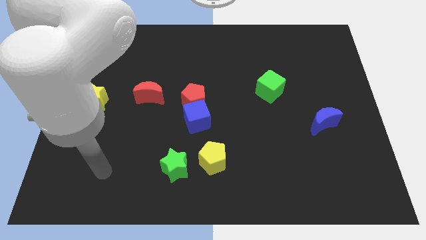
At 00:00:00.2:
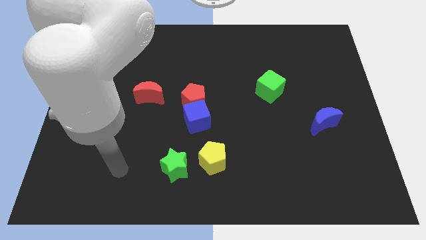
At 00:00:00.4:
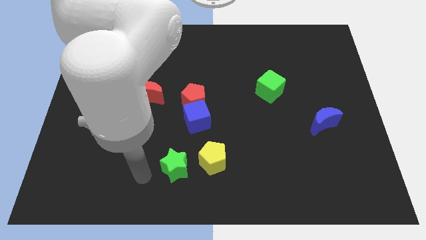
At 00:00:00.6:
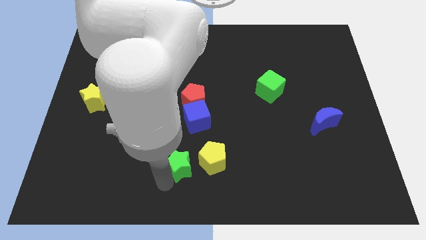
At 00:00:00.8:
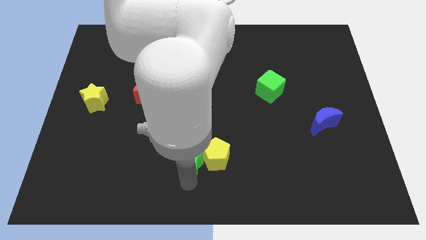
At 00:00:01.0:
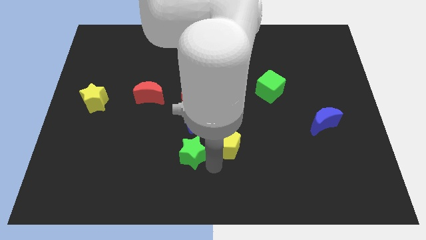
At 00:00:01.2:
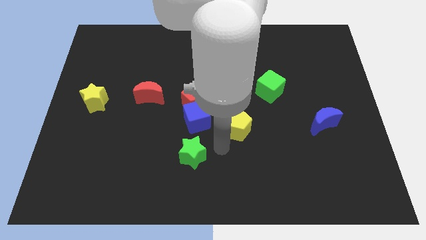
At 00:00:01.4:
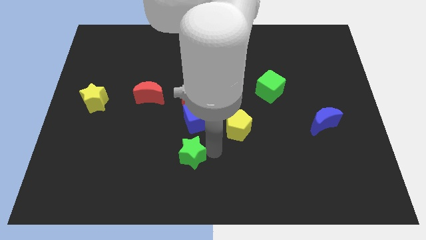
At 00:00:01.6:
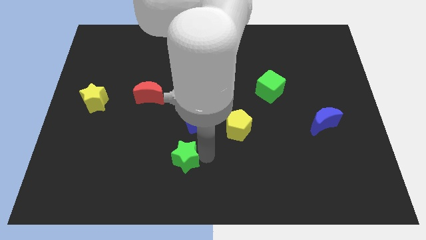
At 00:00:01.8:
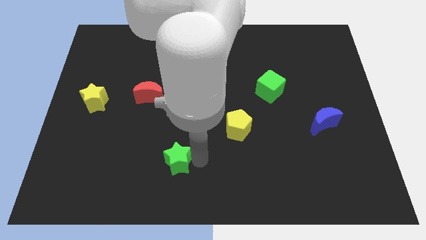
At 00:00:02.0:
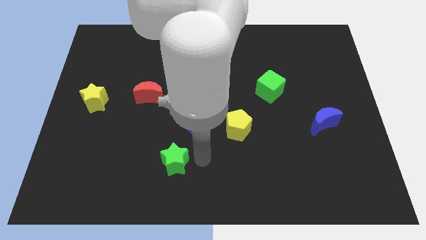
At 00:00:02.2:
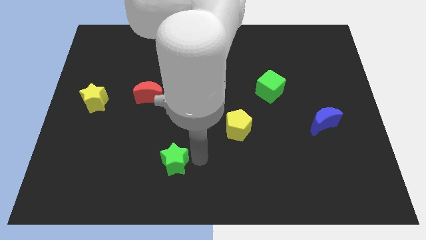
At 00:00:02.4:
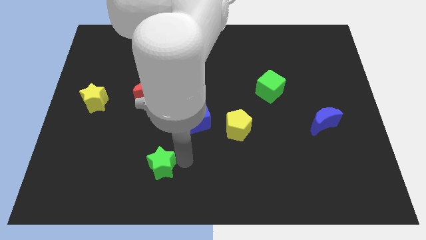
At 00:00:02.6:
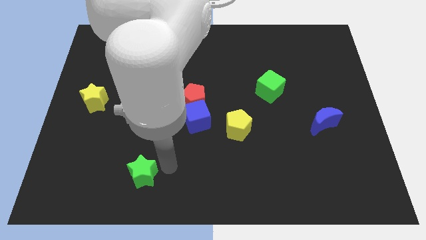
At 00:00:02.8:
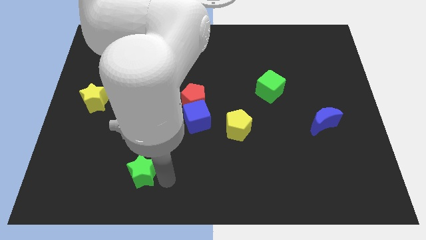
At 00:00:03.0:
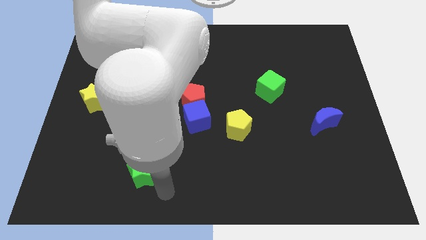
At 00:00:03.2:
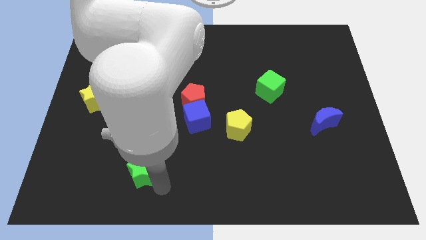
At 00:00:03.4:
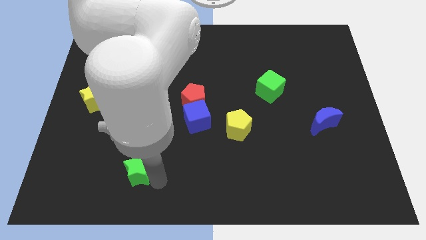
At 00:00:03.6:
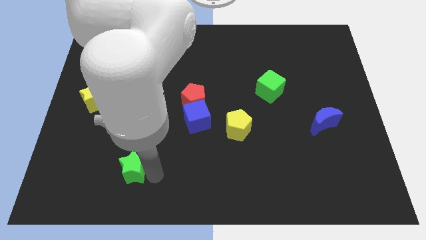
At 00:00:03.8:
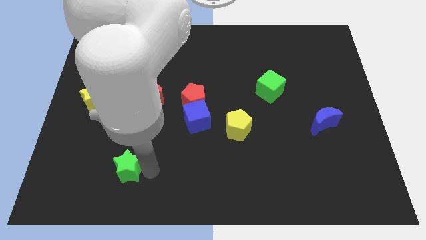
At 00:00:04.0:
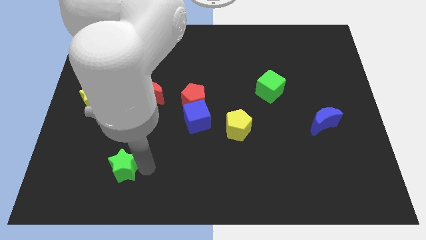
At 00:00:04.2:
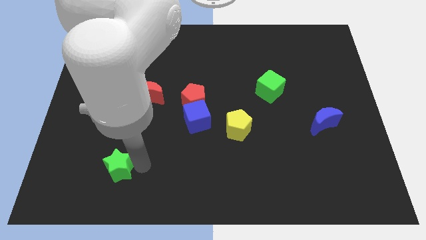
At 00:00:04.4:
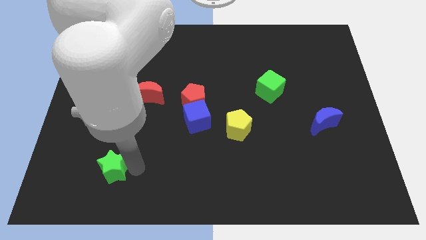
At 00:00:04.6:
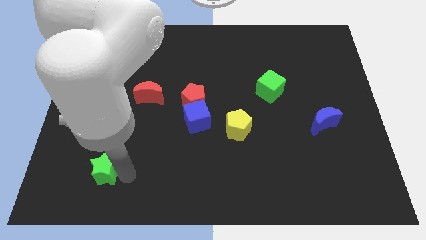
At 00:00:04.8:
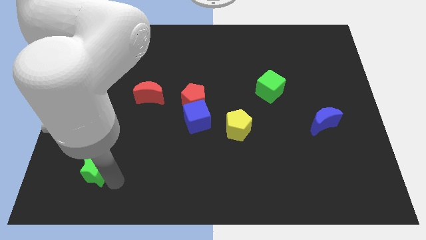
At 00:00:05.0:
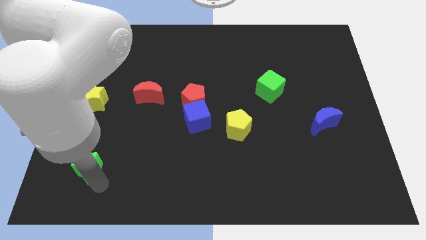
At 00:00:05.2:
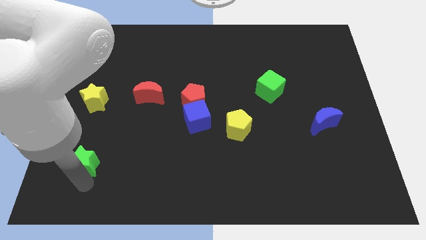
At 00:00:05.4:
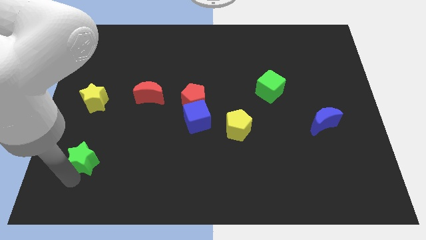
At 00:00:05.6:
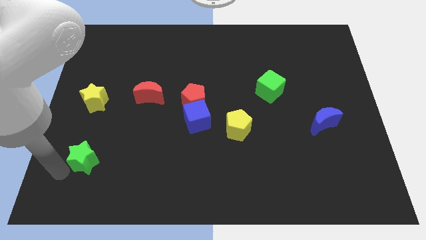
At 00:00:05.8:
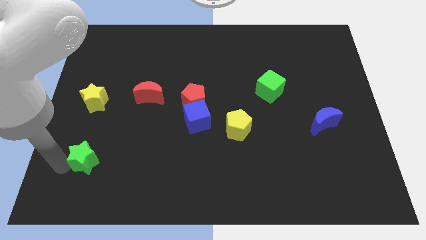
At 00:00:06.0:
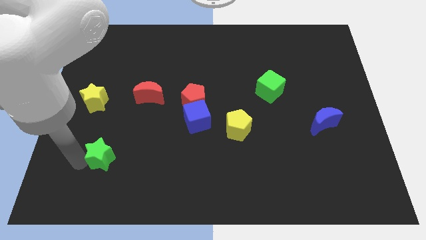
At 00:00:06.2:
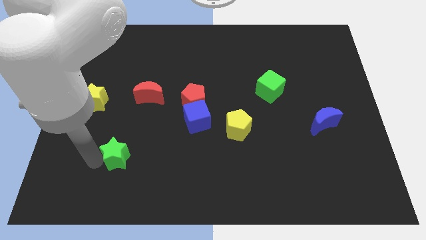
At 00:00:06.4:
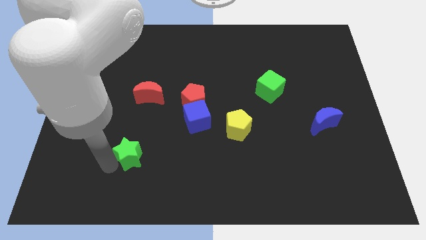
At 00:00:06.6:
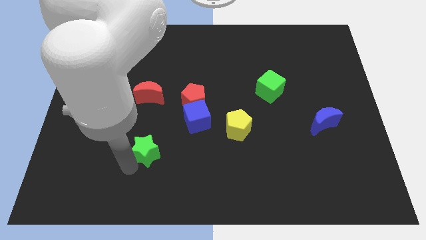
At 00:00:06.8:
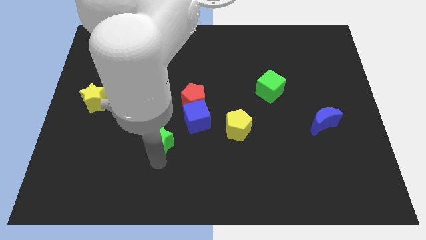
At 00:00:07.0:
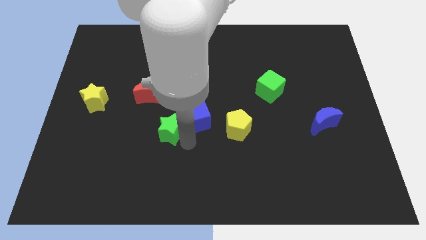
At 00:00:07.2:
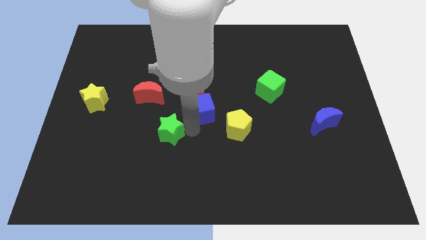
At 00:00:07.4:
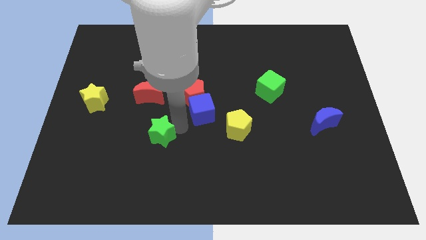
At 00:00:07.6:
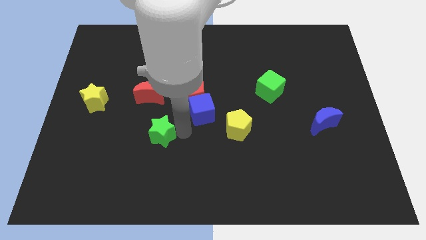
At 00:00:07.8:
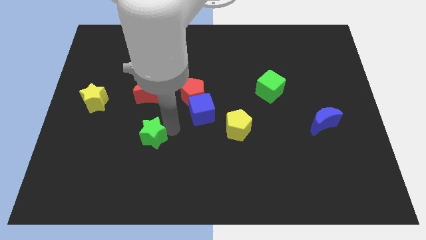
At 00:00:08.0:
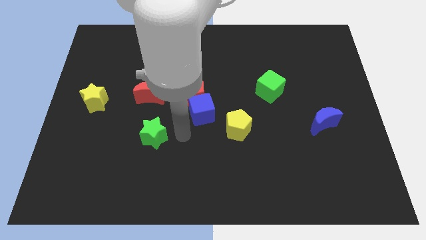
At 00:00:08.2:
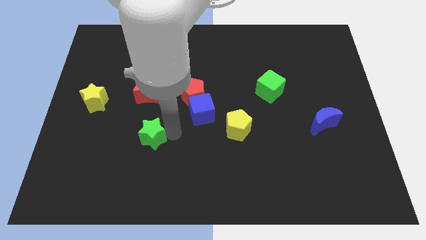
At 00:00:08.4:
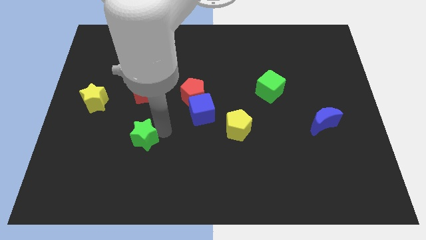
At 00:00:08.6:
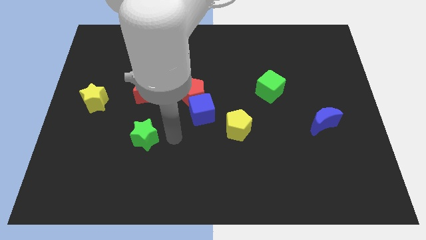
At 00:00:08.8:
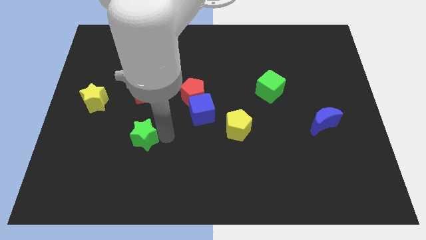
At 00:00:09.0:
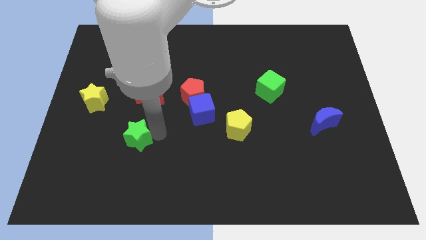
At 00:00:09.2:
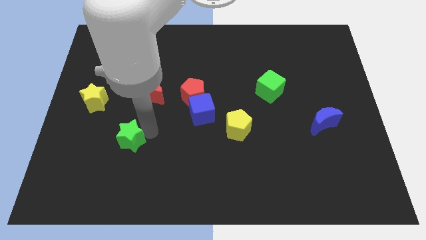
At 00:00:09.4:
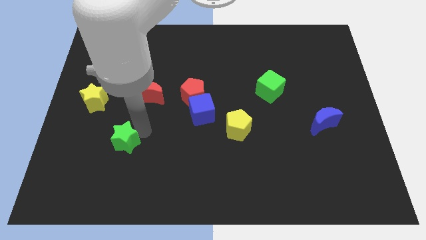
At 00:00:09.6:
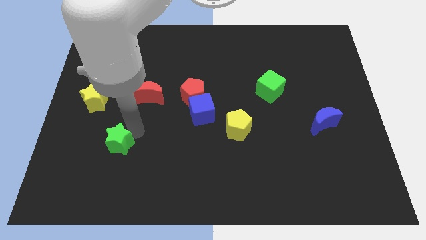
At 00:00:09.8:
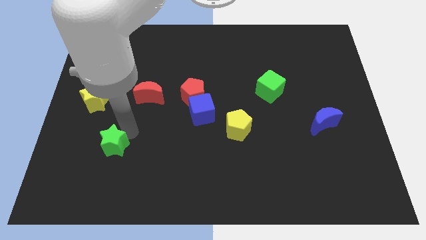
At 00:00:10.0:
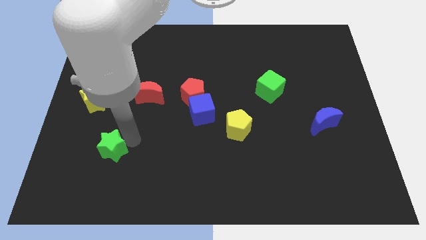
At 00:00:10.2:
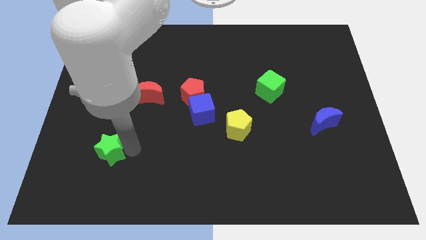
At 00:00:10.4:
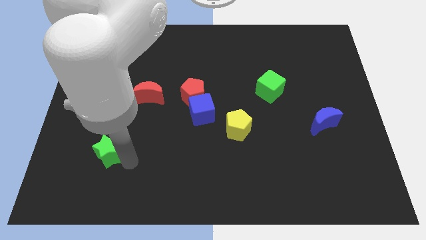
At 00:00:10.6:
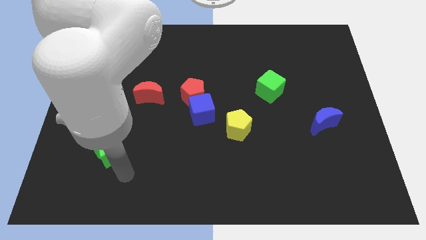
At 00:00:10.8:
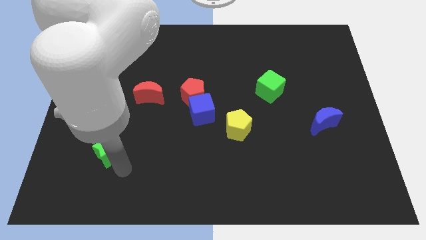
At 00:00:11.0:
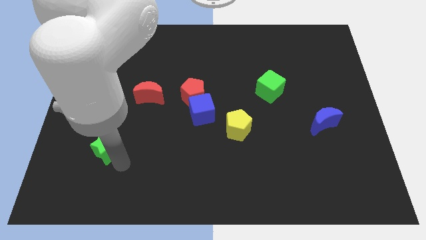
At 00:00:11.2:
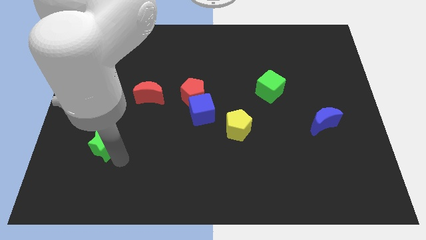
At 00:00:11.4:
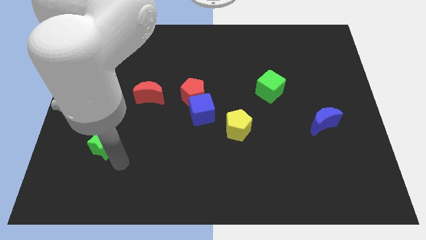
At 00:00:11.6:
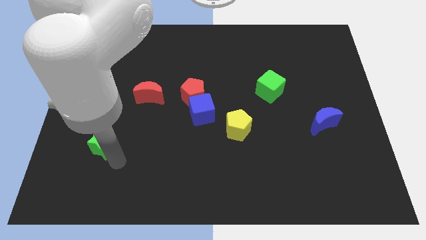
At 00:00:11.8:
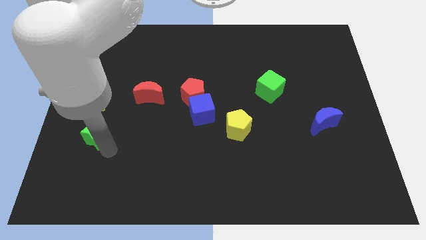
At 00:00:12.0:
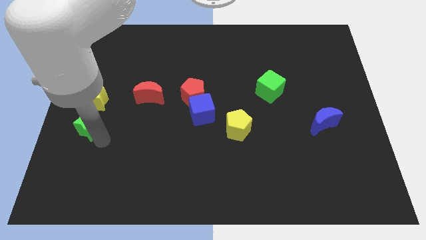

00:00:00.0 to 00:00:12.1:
slide the green star to the center left

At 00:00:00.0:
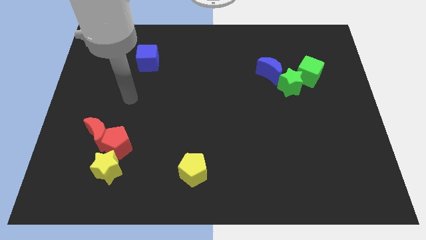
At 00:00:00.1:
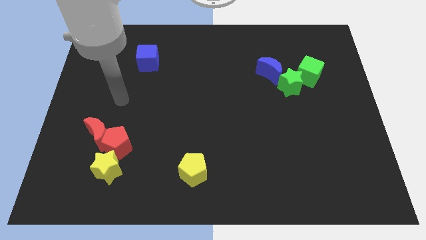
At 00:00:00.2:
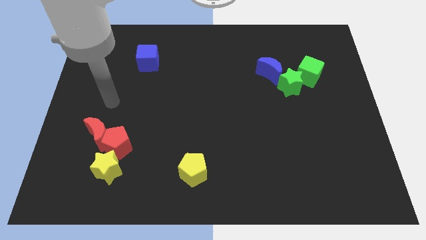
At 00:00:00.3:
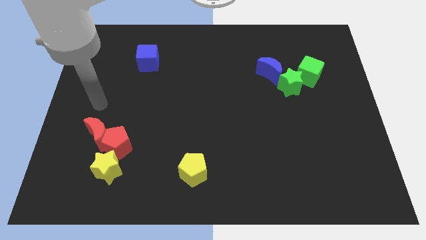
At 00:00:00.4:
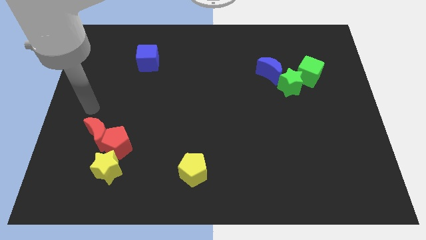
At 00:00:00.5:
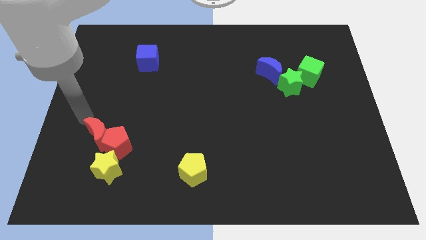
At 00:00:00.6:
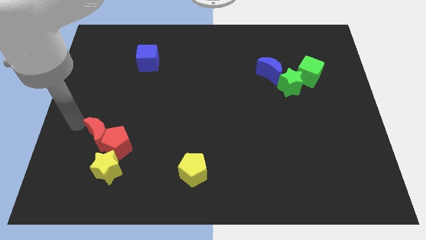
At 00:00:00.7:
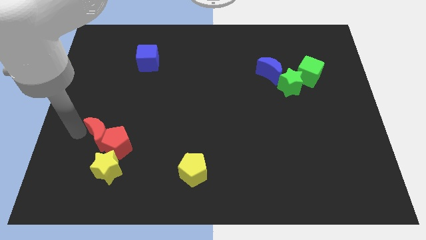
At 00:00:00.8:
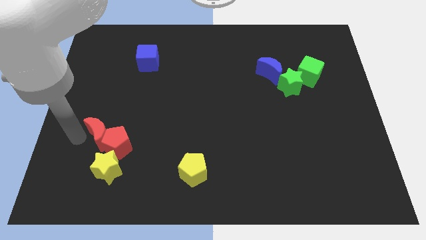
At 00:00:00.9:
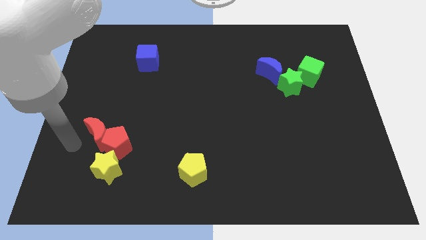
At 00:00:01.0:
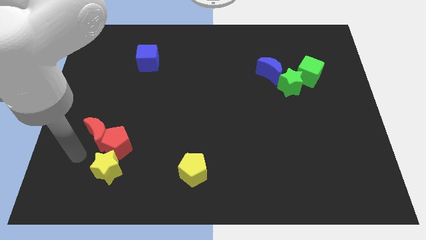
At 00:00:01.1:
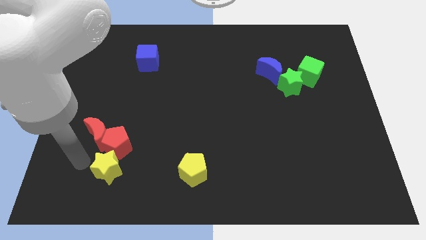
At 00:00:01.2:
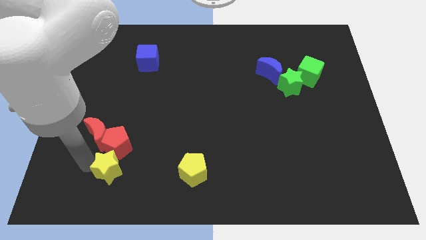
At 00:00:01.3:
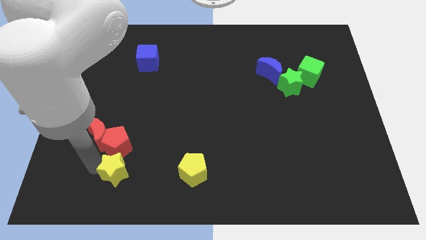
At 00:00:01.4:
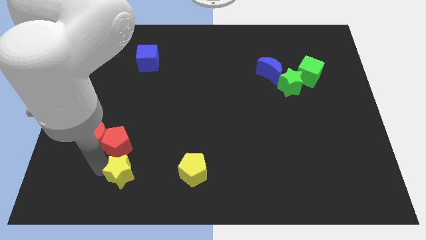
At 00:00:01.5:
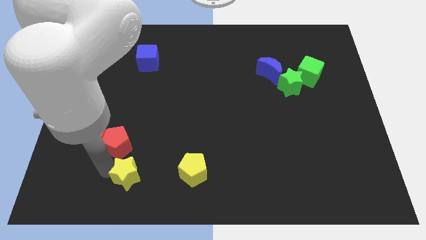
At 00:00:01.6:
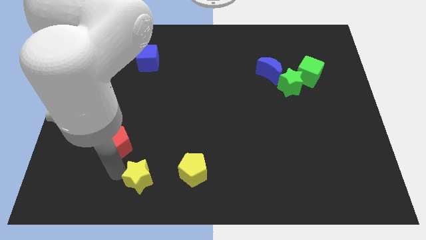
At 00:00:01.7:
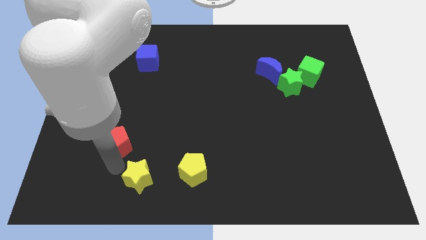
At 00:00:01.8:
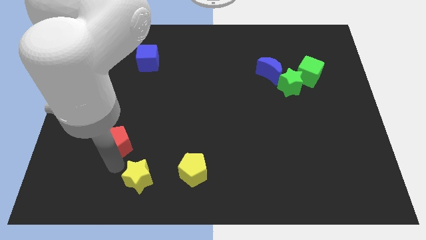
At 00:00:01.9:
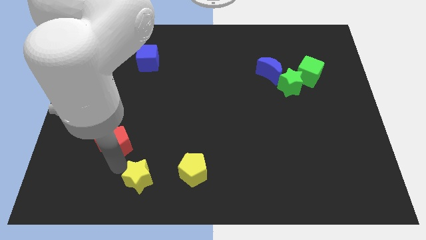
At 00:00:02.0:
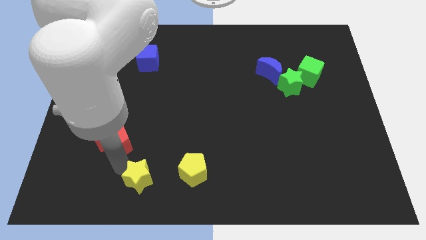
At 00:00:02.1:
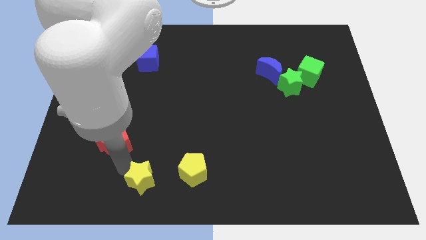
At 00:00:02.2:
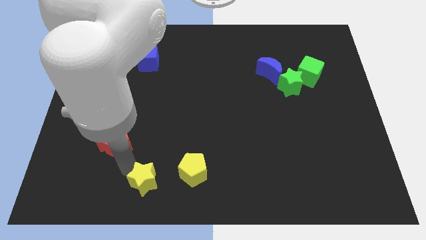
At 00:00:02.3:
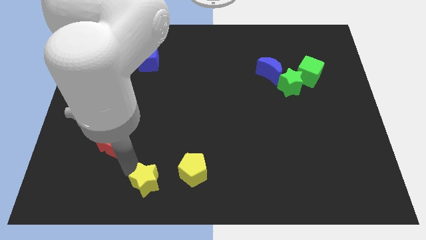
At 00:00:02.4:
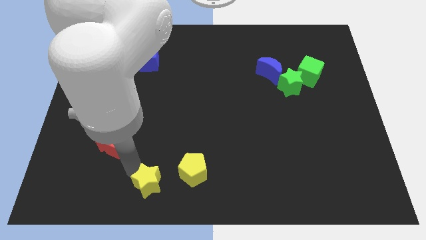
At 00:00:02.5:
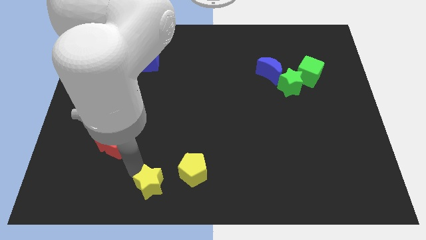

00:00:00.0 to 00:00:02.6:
push the yellow star to the bottom
